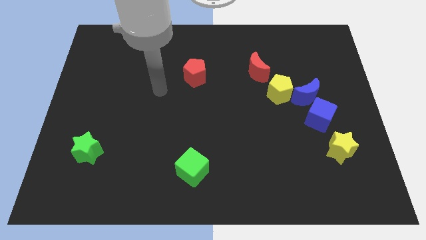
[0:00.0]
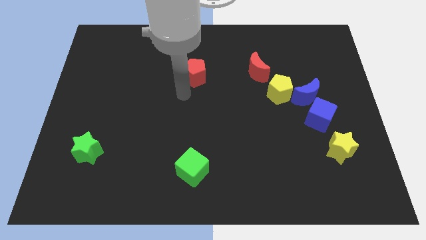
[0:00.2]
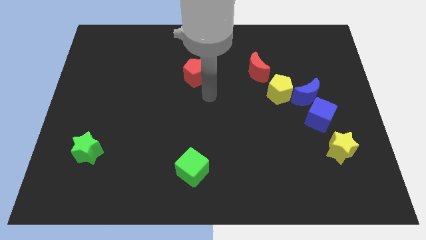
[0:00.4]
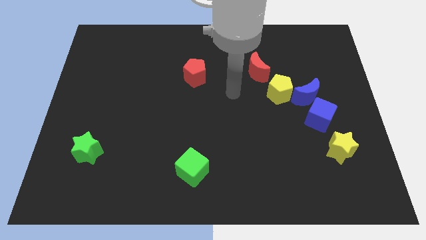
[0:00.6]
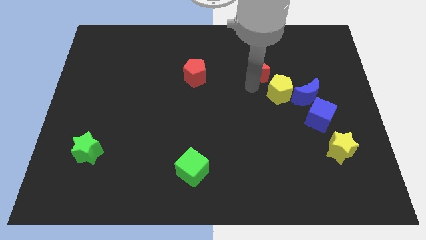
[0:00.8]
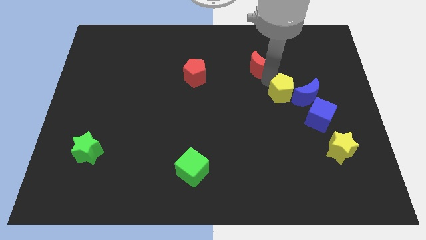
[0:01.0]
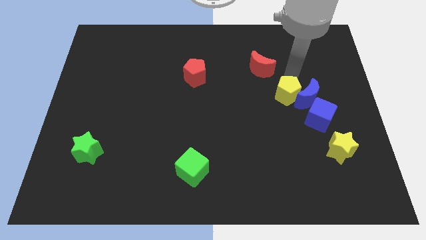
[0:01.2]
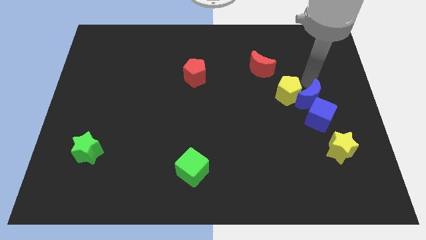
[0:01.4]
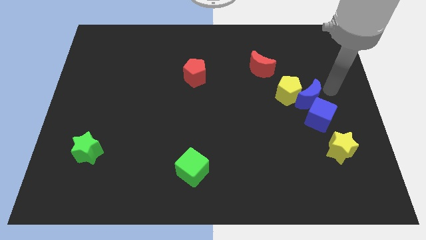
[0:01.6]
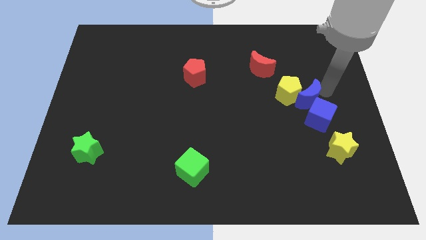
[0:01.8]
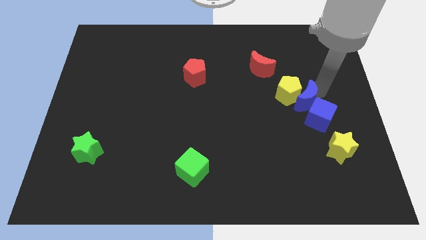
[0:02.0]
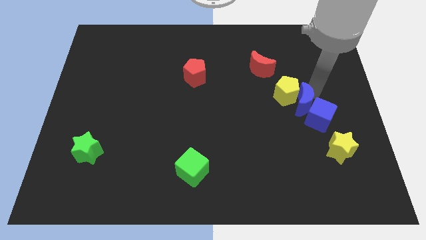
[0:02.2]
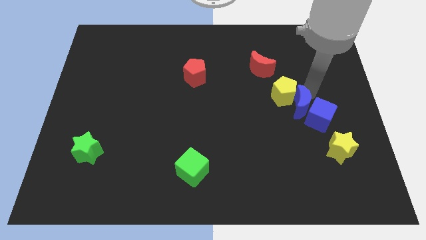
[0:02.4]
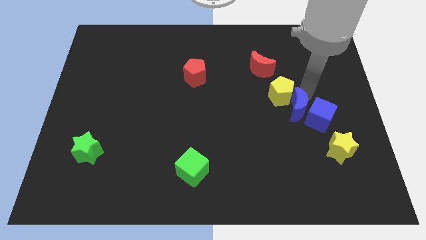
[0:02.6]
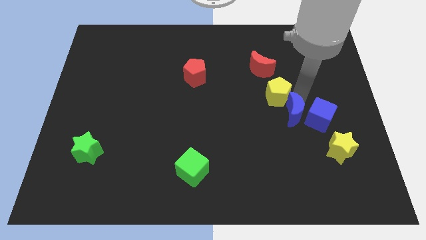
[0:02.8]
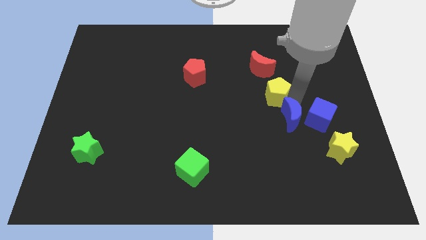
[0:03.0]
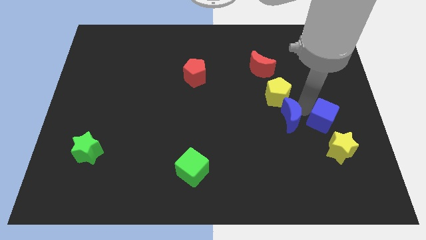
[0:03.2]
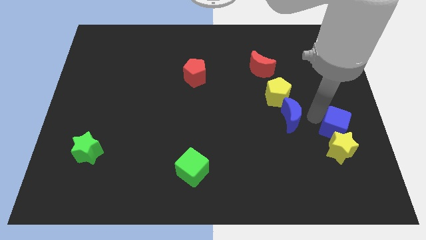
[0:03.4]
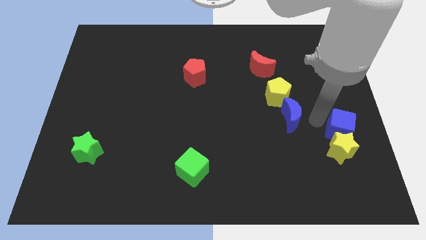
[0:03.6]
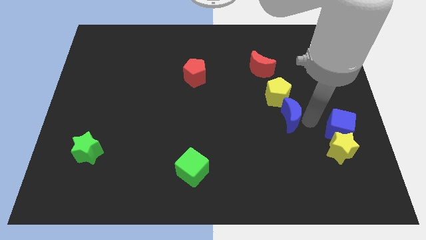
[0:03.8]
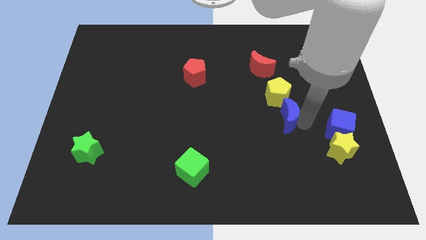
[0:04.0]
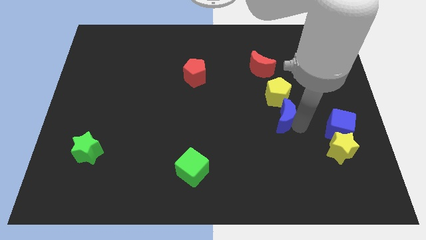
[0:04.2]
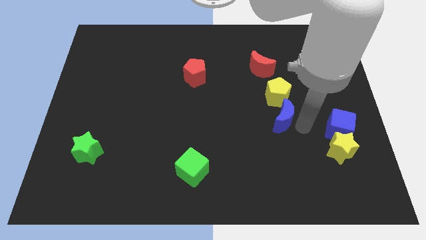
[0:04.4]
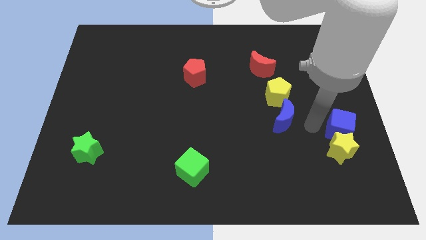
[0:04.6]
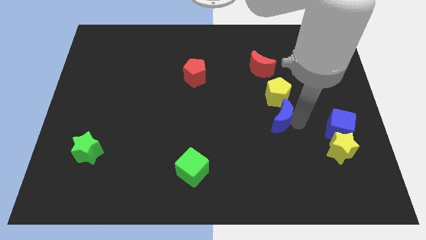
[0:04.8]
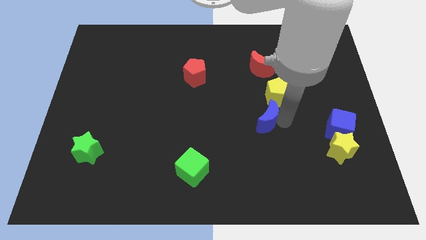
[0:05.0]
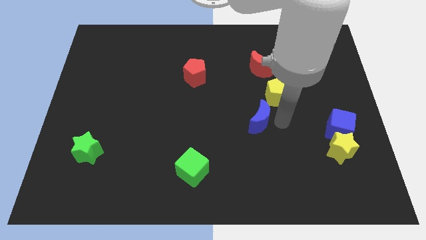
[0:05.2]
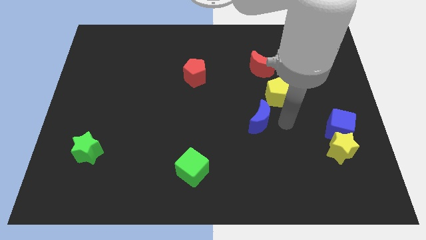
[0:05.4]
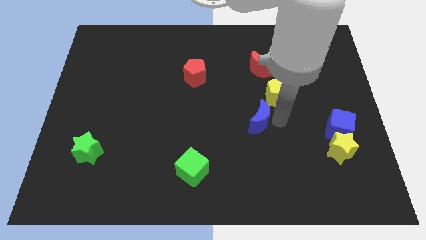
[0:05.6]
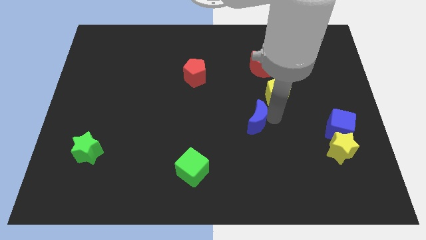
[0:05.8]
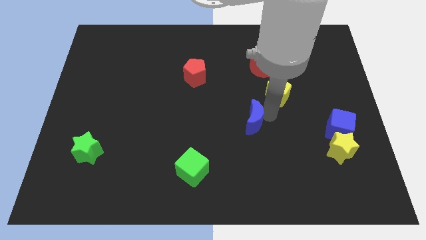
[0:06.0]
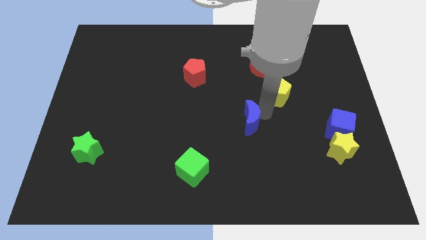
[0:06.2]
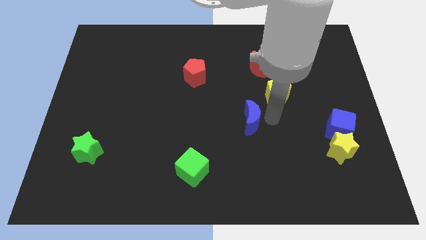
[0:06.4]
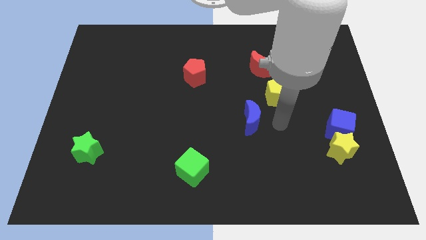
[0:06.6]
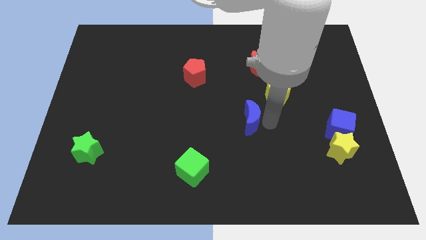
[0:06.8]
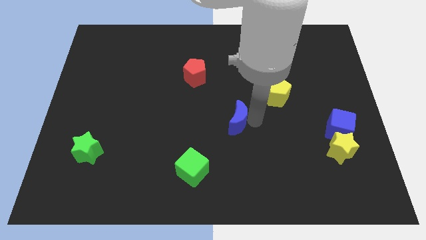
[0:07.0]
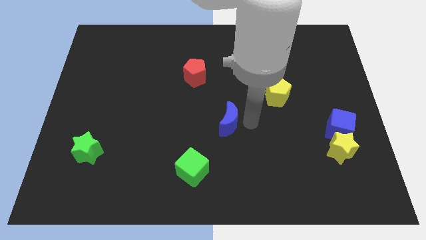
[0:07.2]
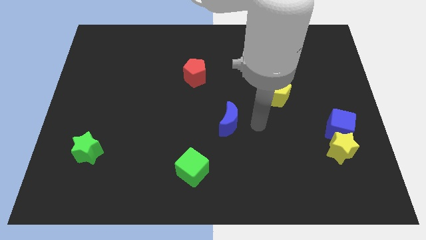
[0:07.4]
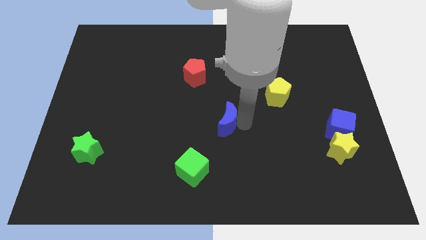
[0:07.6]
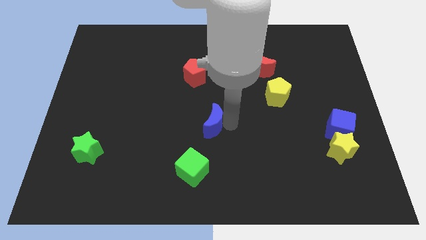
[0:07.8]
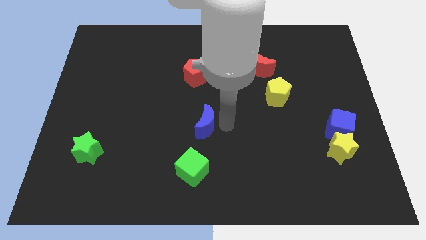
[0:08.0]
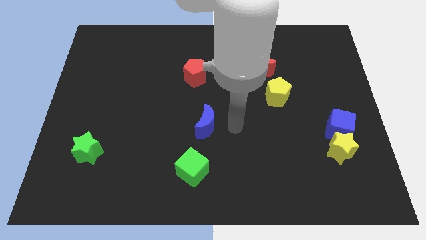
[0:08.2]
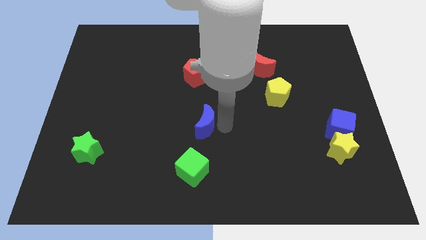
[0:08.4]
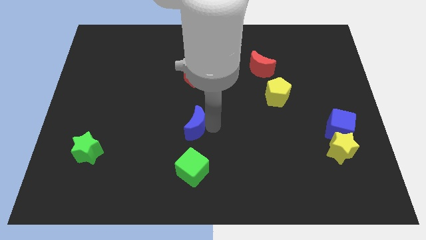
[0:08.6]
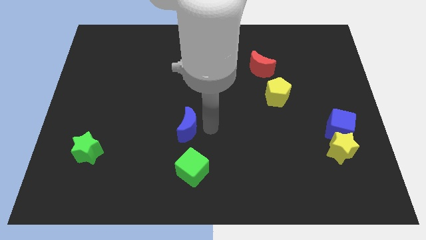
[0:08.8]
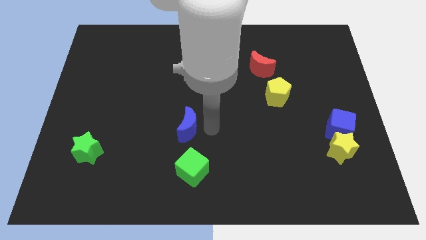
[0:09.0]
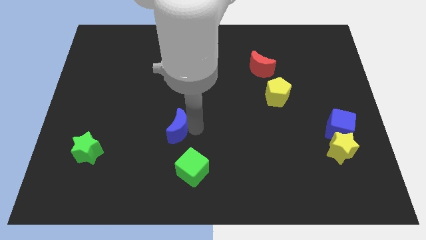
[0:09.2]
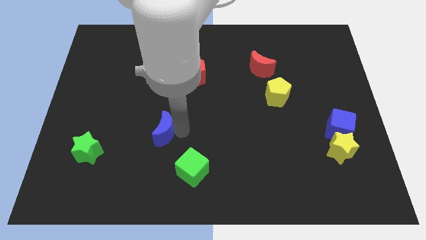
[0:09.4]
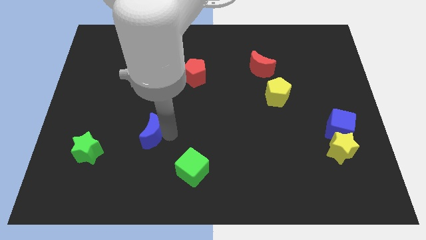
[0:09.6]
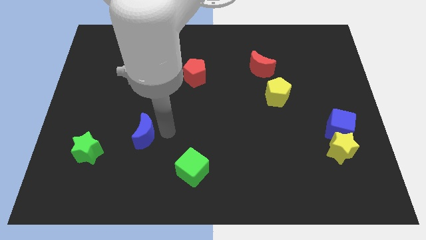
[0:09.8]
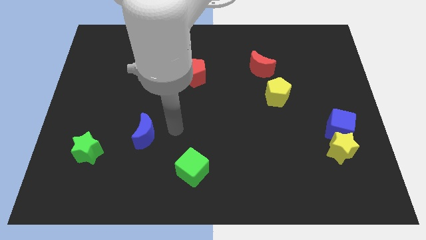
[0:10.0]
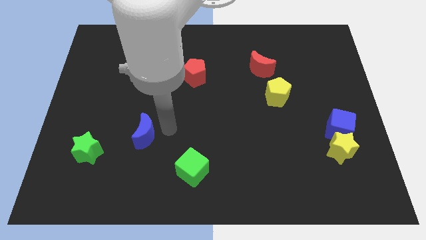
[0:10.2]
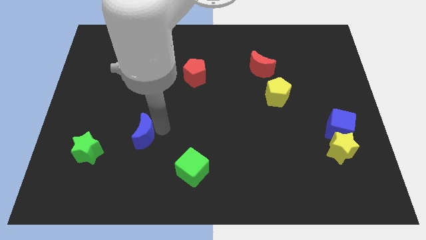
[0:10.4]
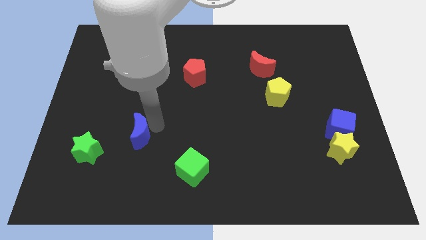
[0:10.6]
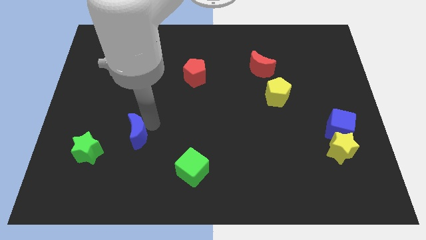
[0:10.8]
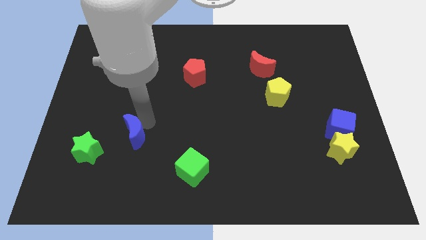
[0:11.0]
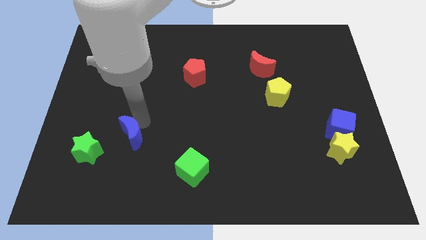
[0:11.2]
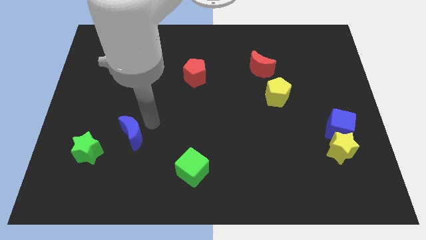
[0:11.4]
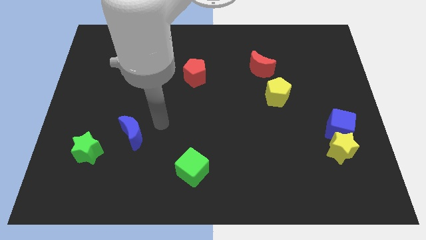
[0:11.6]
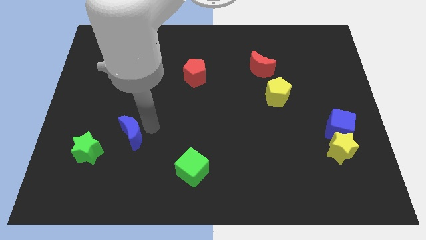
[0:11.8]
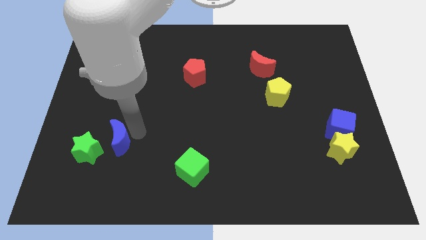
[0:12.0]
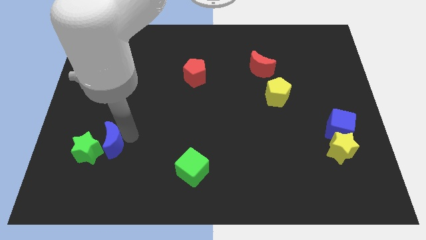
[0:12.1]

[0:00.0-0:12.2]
push the blue moon close to the green star
